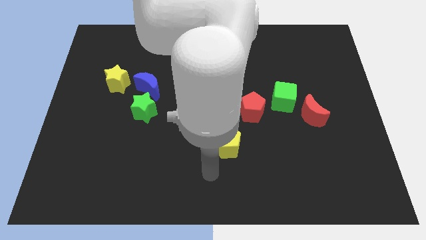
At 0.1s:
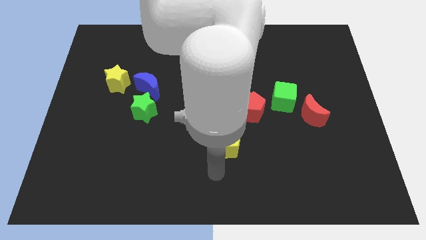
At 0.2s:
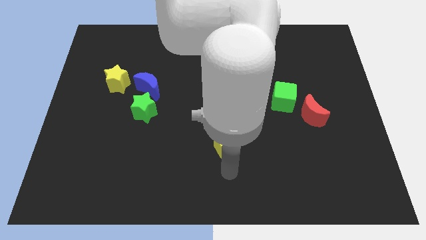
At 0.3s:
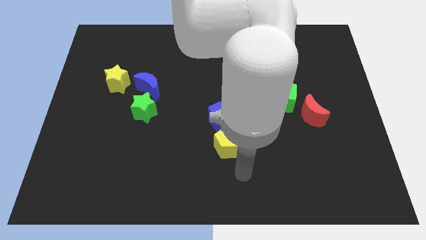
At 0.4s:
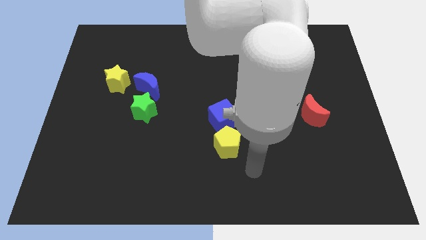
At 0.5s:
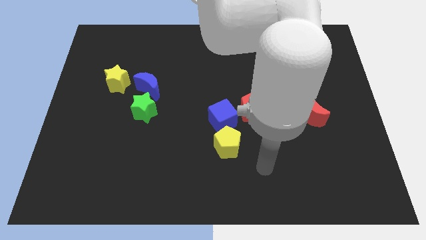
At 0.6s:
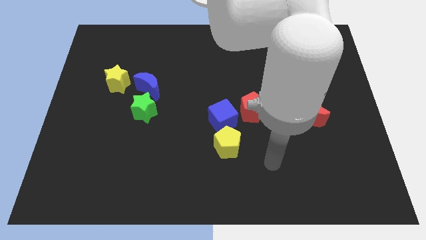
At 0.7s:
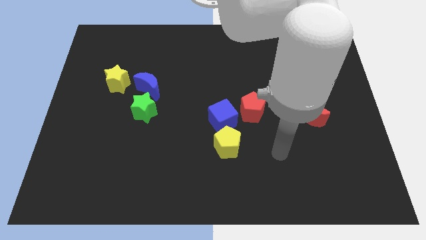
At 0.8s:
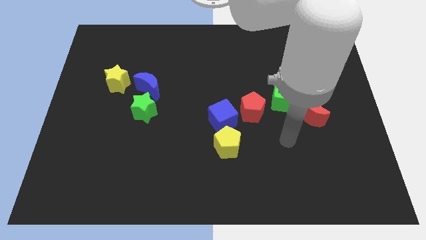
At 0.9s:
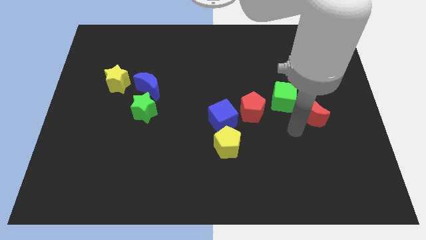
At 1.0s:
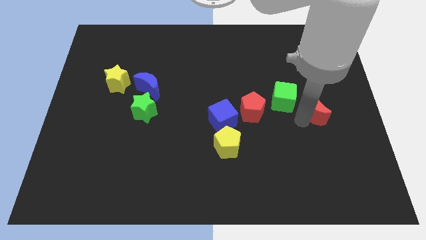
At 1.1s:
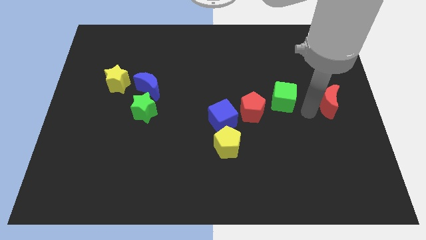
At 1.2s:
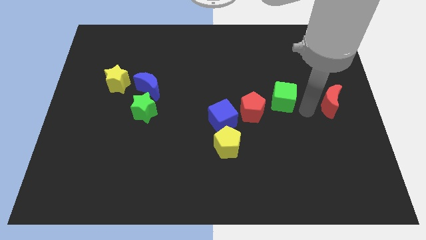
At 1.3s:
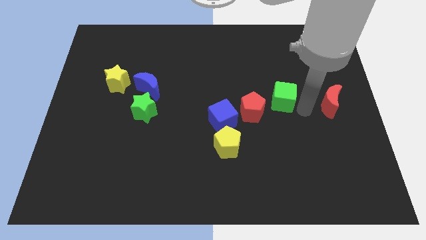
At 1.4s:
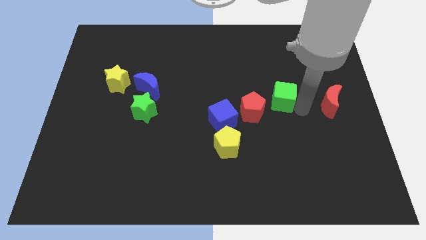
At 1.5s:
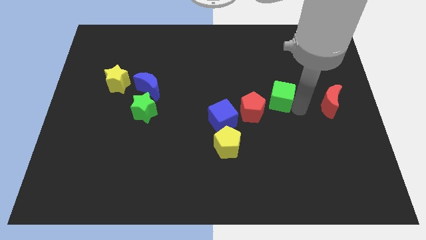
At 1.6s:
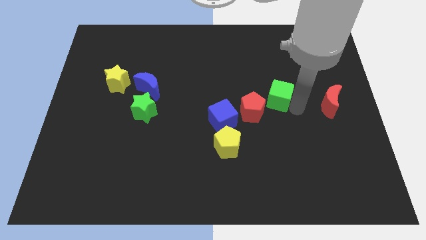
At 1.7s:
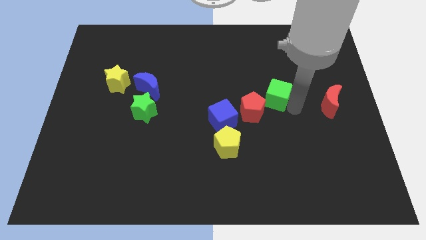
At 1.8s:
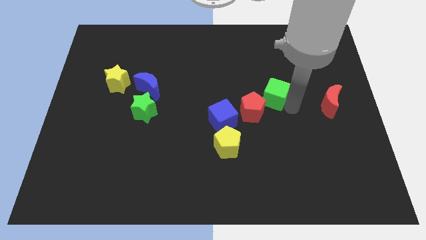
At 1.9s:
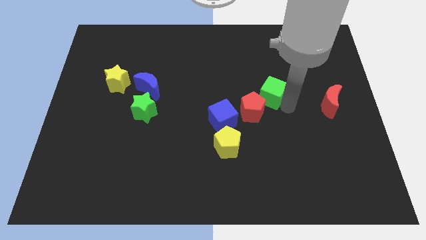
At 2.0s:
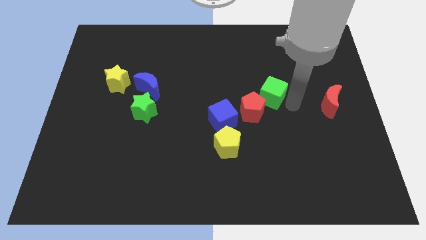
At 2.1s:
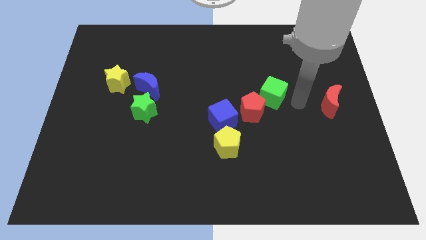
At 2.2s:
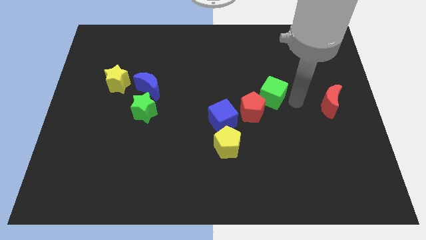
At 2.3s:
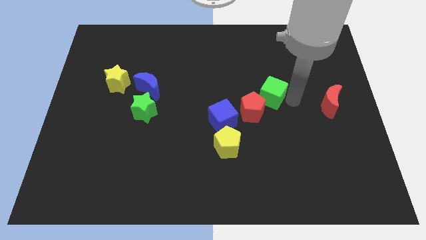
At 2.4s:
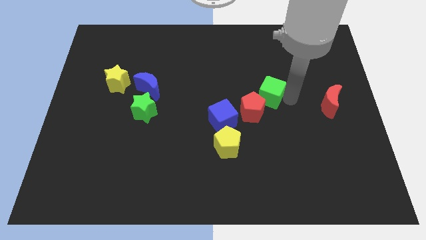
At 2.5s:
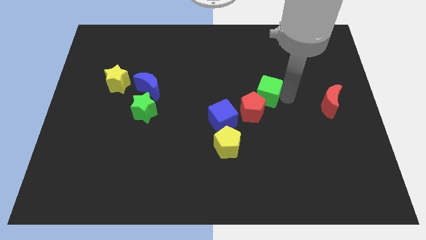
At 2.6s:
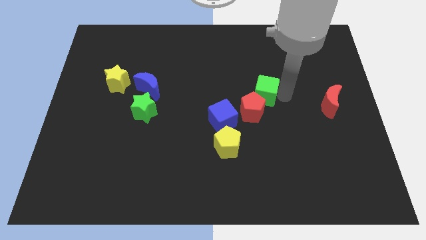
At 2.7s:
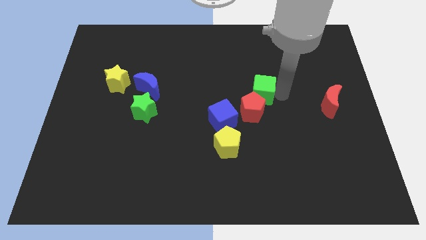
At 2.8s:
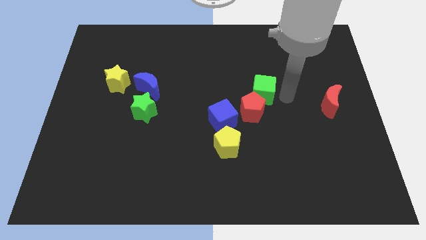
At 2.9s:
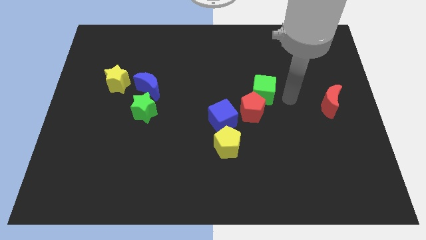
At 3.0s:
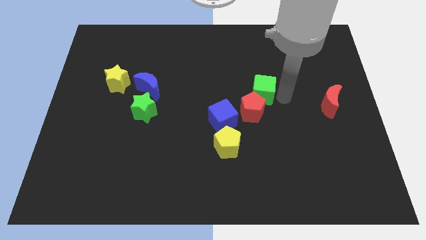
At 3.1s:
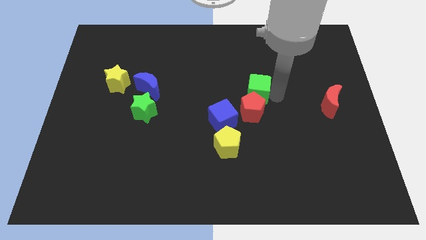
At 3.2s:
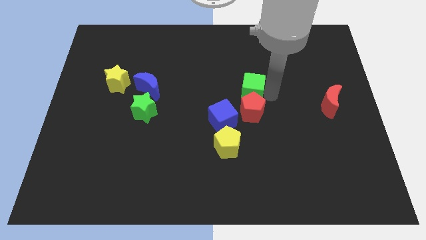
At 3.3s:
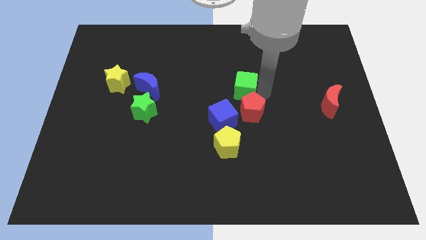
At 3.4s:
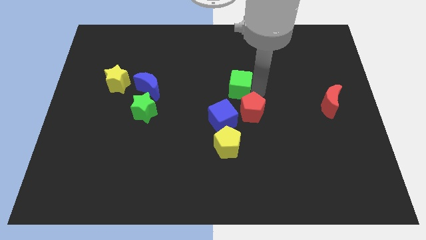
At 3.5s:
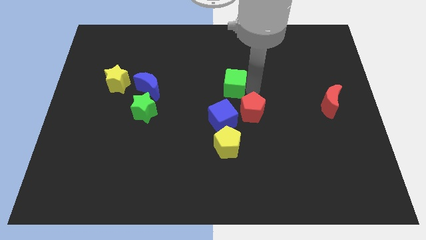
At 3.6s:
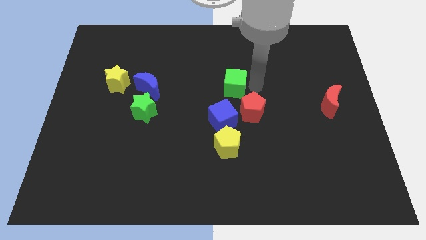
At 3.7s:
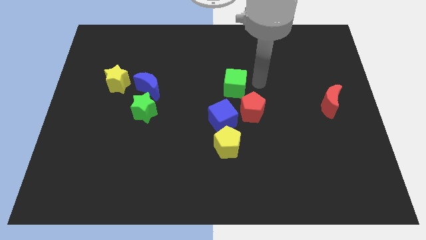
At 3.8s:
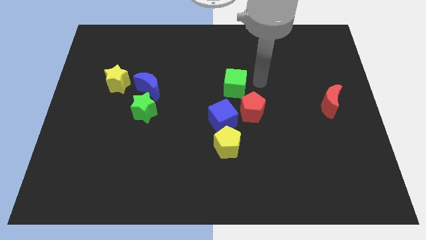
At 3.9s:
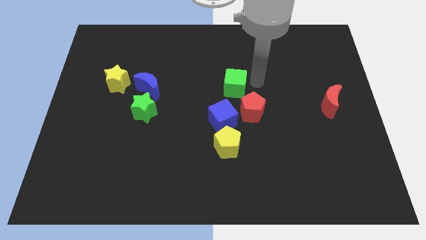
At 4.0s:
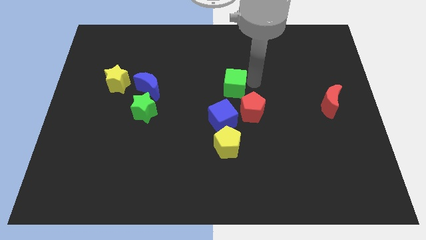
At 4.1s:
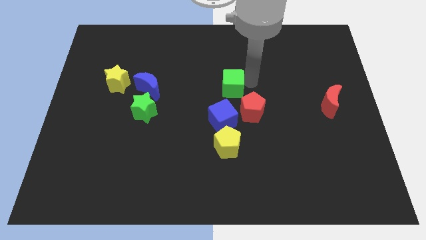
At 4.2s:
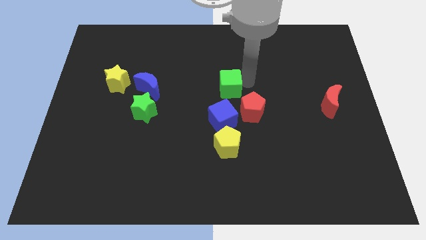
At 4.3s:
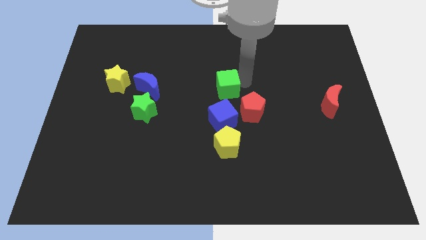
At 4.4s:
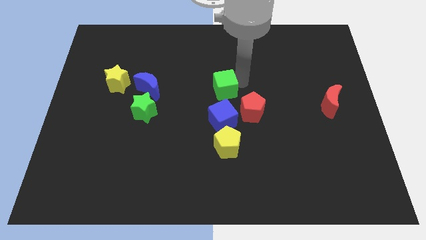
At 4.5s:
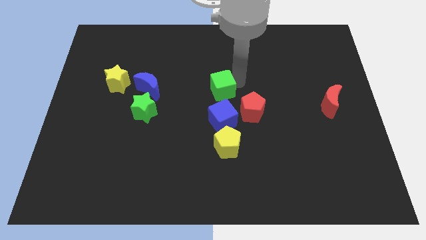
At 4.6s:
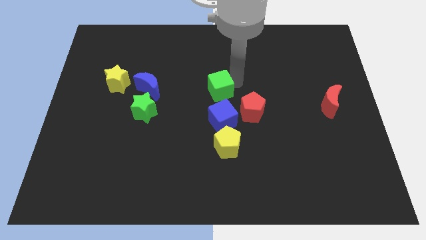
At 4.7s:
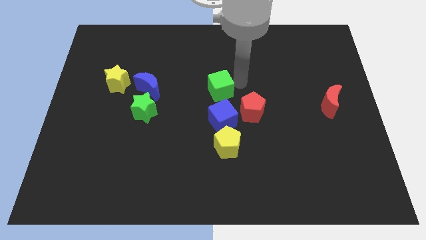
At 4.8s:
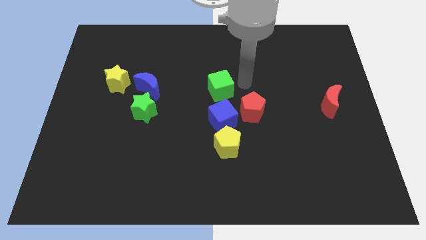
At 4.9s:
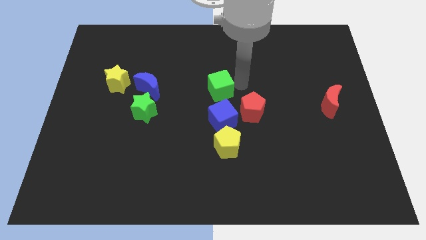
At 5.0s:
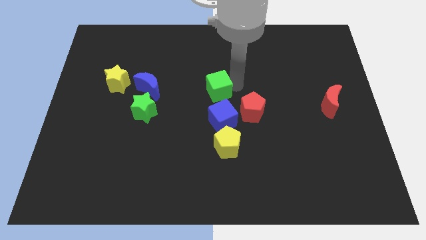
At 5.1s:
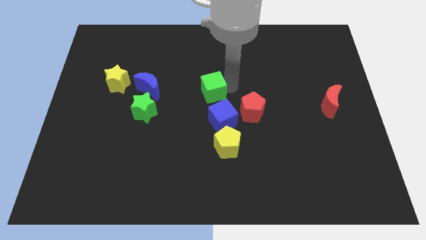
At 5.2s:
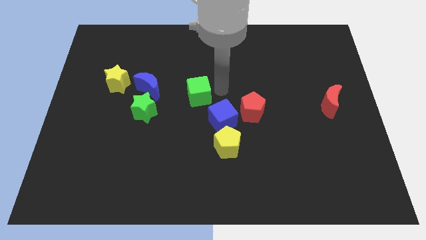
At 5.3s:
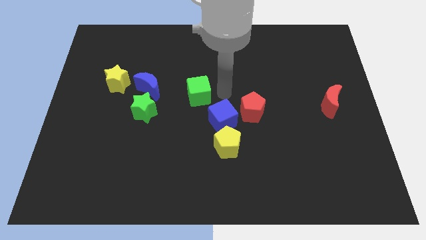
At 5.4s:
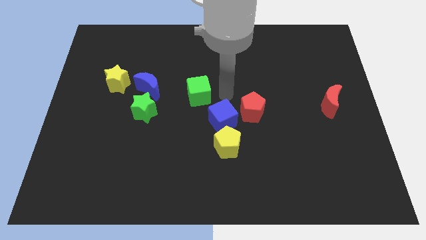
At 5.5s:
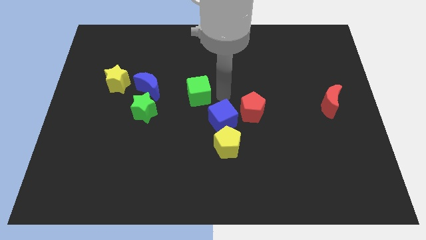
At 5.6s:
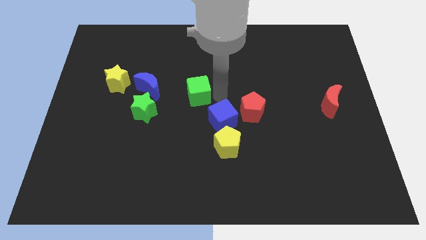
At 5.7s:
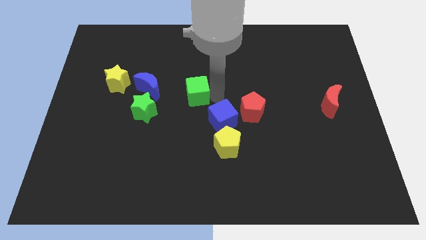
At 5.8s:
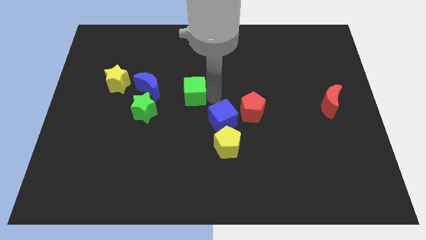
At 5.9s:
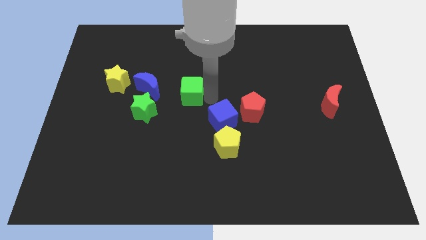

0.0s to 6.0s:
push the green cube diagonally up and to the right of the green star

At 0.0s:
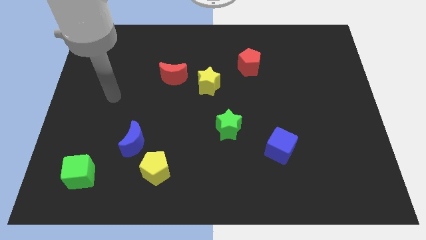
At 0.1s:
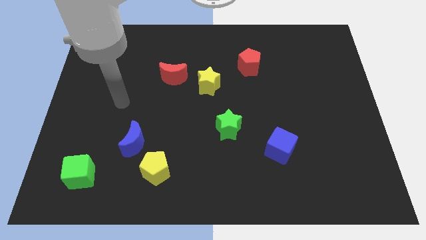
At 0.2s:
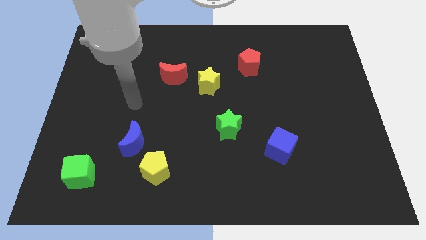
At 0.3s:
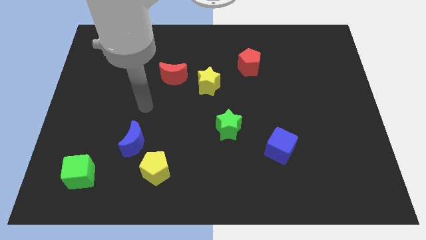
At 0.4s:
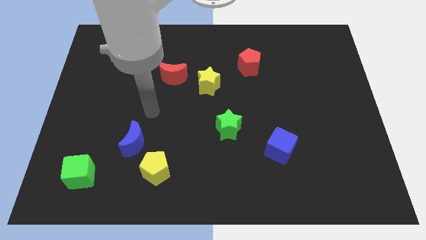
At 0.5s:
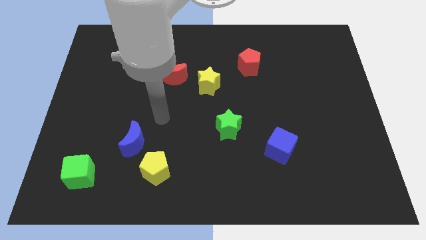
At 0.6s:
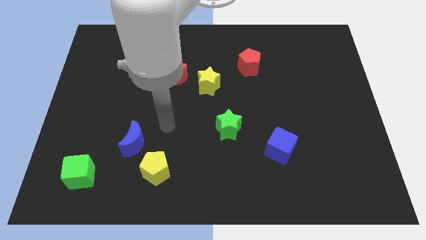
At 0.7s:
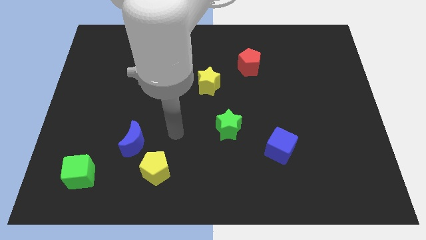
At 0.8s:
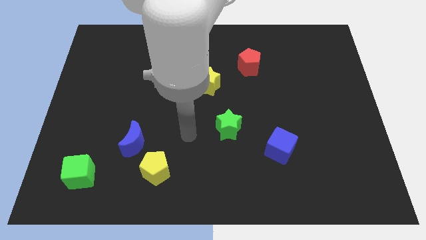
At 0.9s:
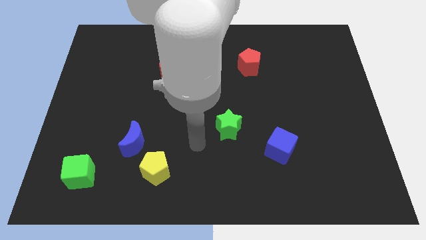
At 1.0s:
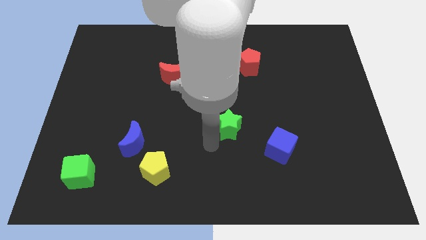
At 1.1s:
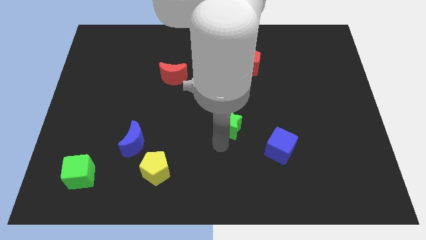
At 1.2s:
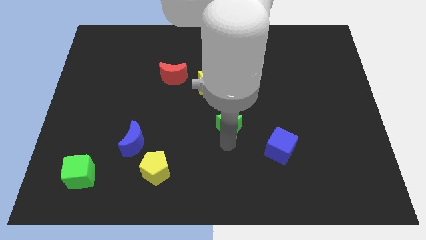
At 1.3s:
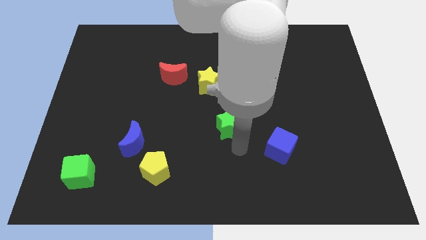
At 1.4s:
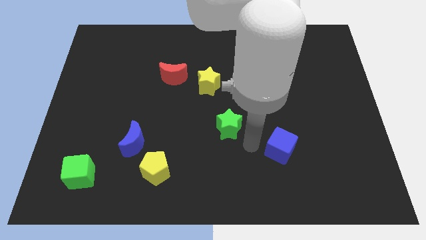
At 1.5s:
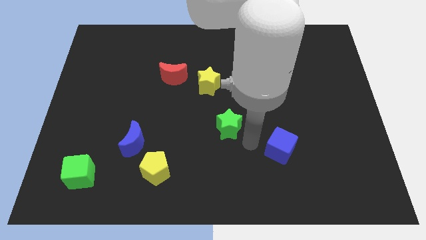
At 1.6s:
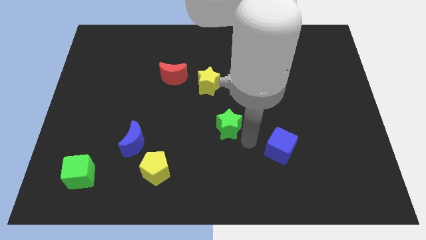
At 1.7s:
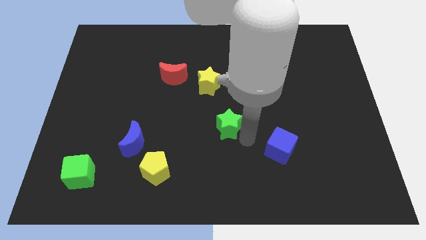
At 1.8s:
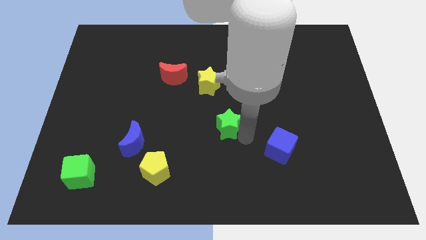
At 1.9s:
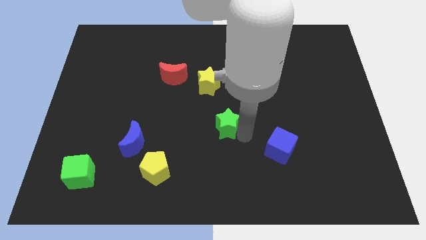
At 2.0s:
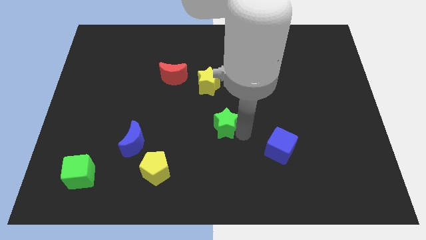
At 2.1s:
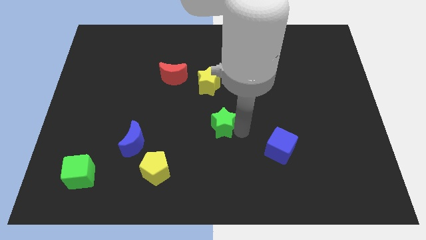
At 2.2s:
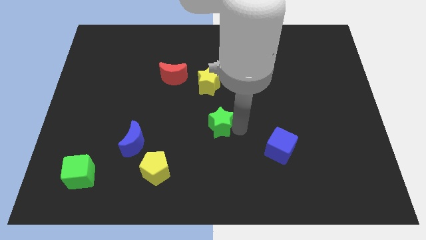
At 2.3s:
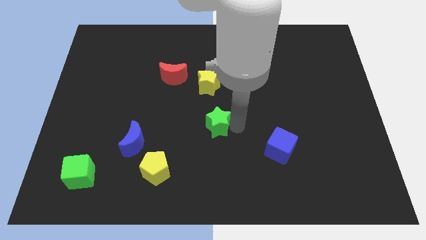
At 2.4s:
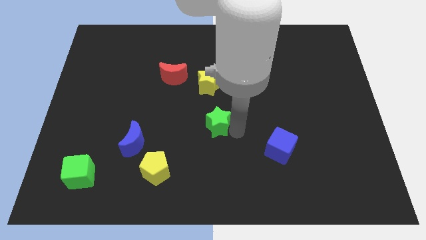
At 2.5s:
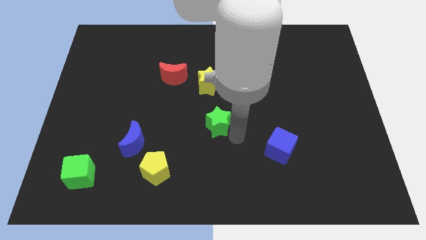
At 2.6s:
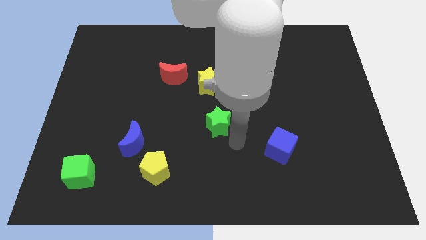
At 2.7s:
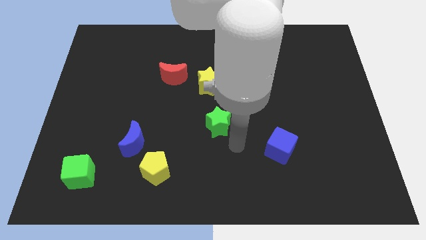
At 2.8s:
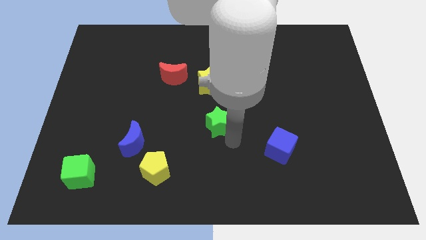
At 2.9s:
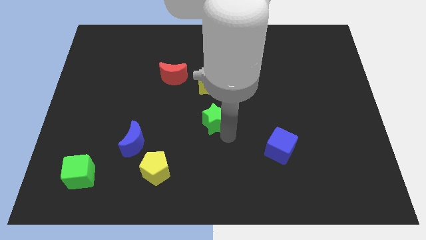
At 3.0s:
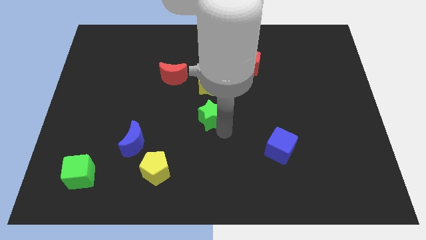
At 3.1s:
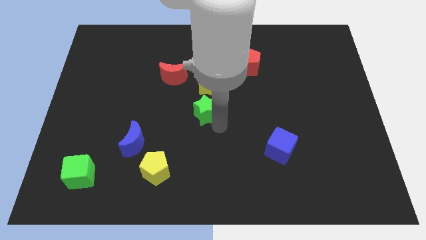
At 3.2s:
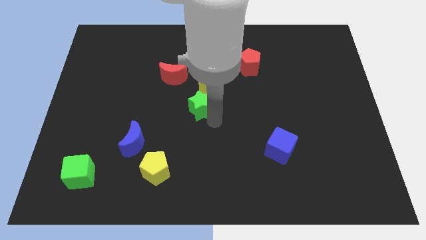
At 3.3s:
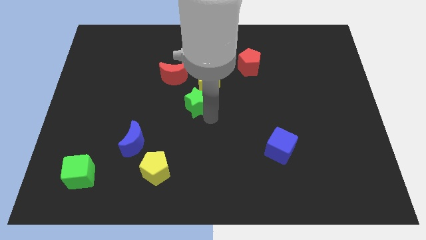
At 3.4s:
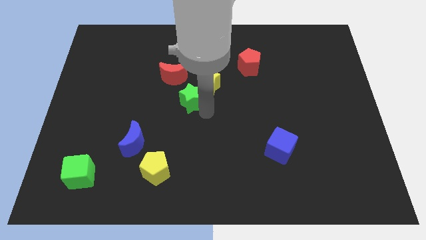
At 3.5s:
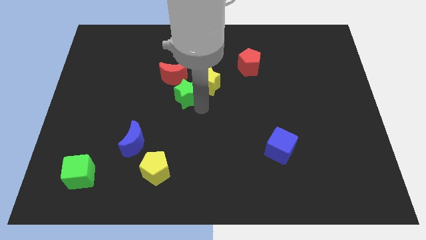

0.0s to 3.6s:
put the green star just left of the yellow star
